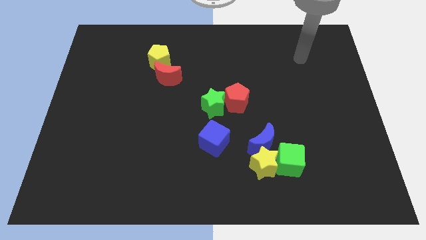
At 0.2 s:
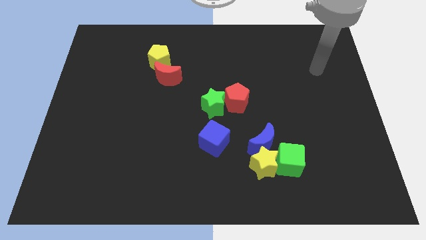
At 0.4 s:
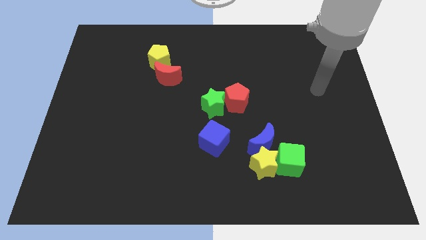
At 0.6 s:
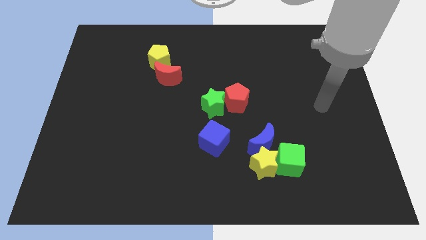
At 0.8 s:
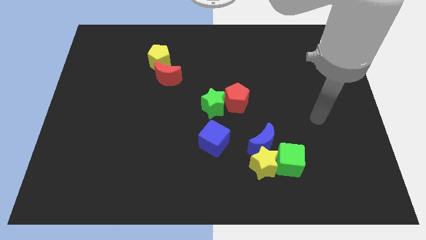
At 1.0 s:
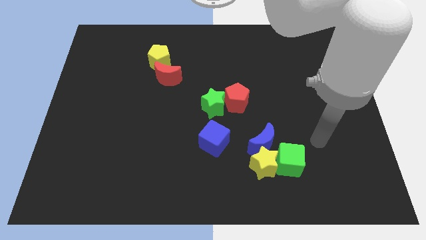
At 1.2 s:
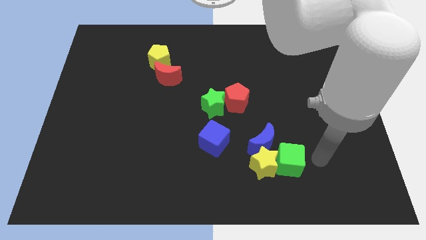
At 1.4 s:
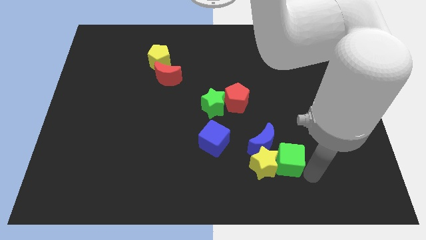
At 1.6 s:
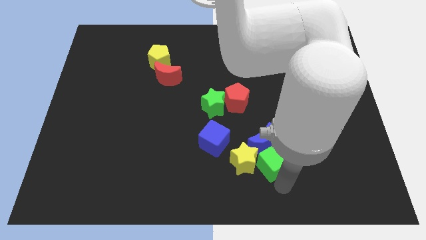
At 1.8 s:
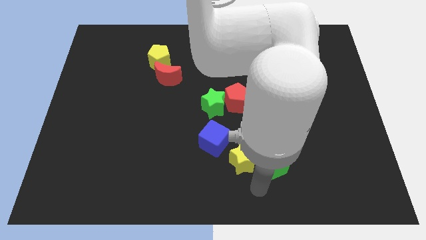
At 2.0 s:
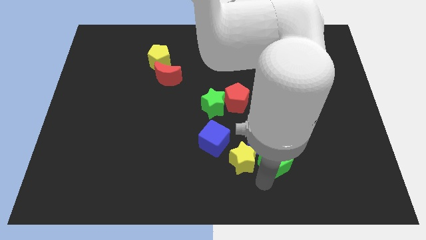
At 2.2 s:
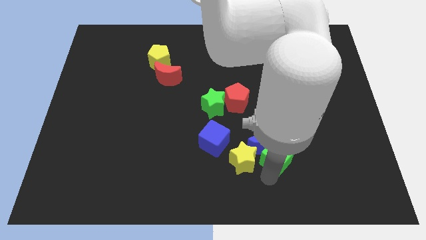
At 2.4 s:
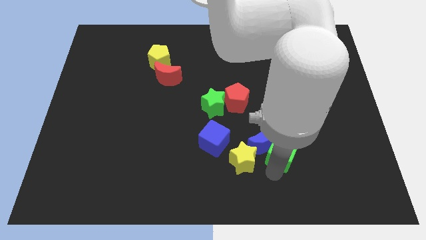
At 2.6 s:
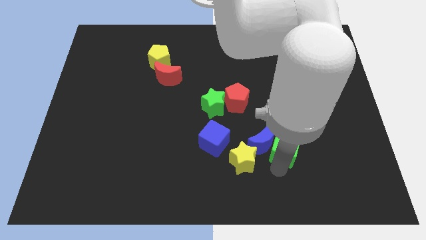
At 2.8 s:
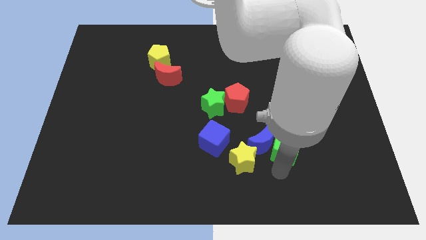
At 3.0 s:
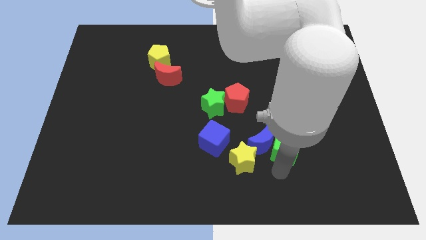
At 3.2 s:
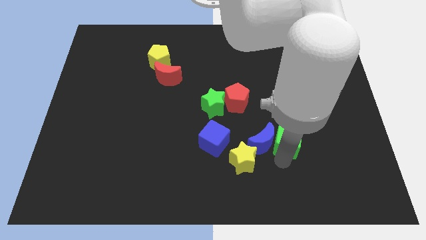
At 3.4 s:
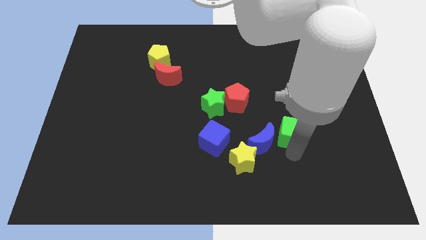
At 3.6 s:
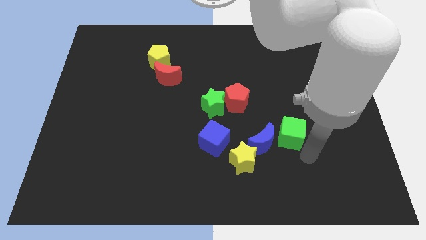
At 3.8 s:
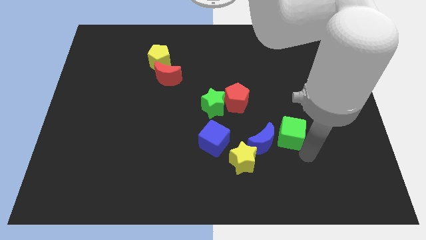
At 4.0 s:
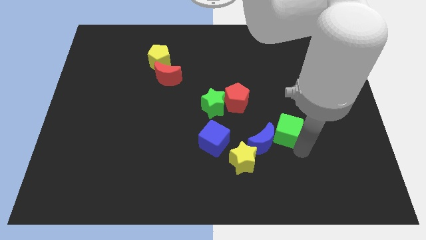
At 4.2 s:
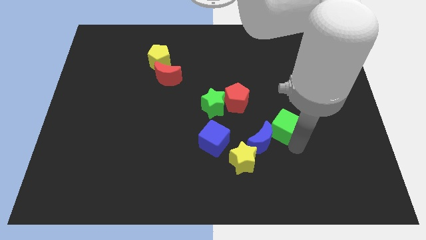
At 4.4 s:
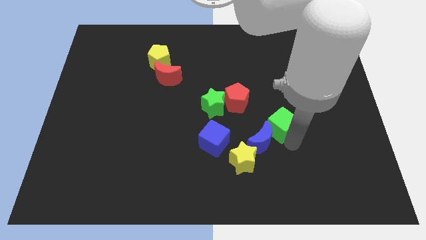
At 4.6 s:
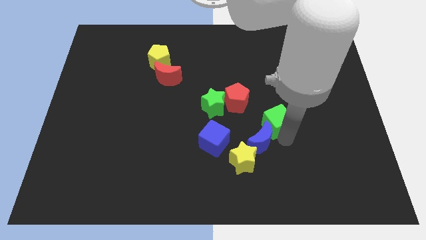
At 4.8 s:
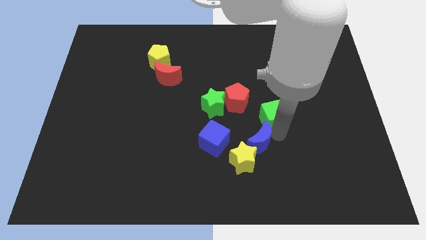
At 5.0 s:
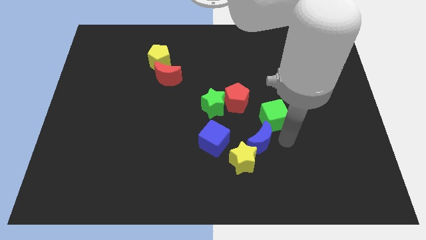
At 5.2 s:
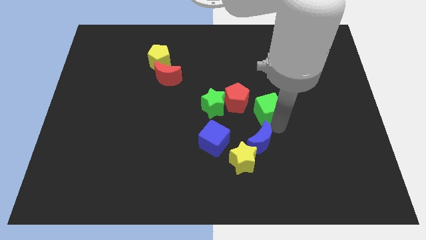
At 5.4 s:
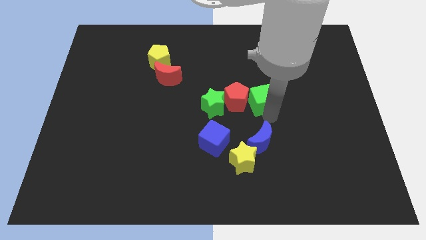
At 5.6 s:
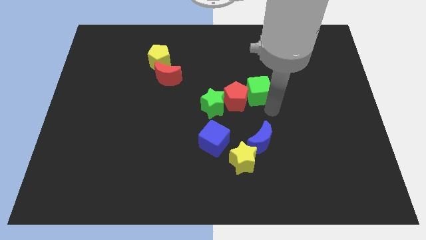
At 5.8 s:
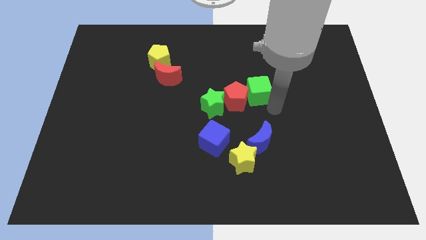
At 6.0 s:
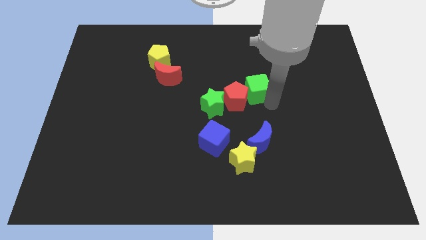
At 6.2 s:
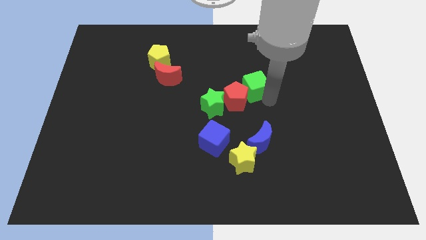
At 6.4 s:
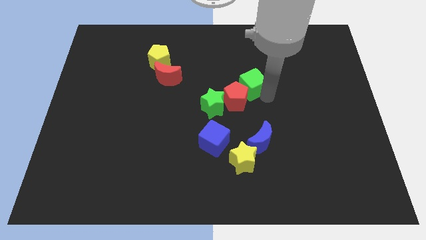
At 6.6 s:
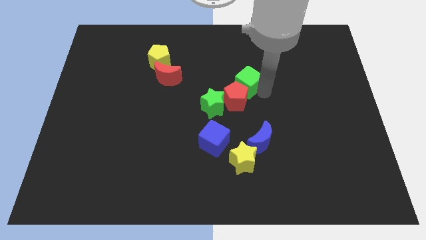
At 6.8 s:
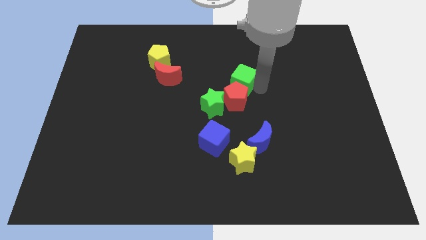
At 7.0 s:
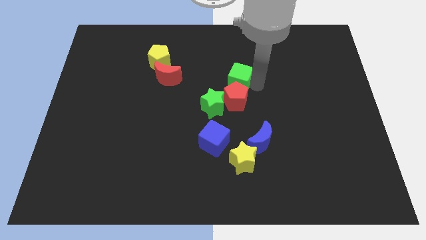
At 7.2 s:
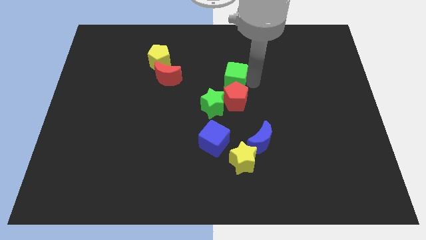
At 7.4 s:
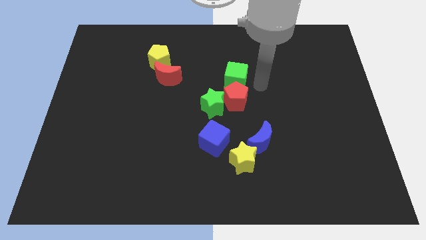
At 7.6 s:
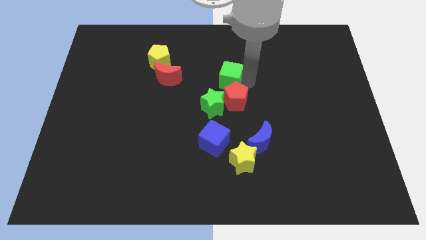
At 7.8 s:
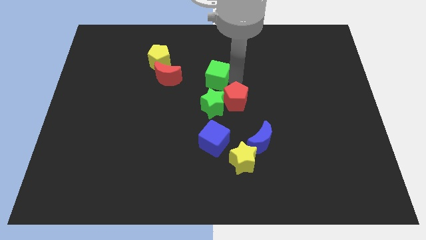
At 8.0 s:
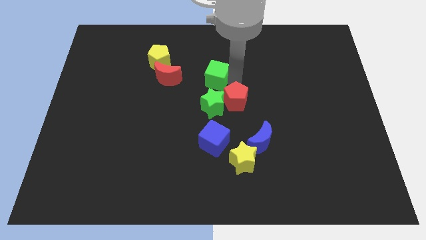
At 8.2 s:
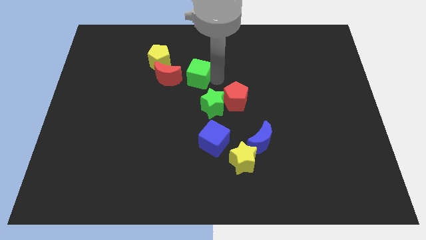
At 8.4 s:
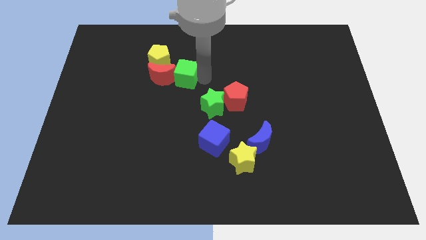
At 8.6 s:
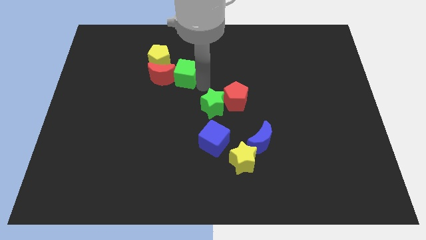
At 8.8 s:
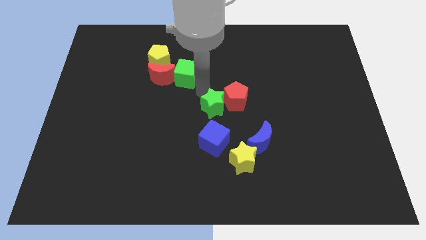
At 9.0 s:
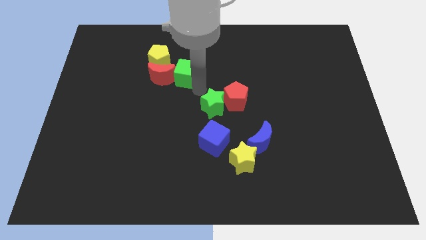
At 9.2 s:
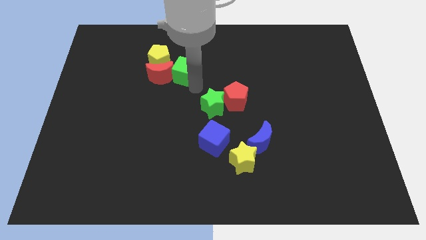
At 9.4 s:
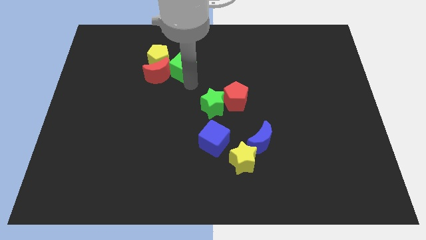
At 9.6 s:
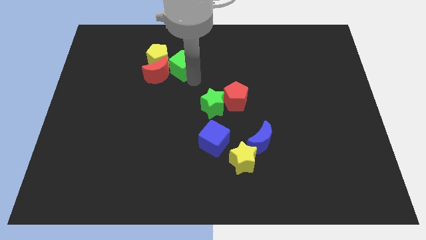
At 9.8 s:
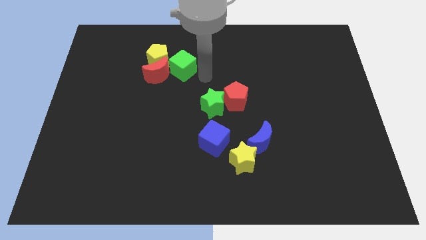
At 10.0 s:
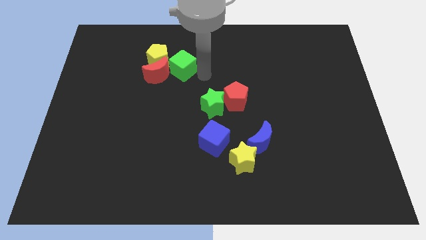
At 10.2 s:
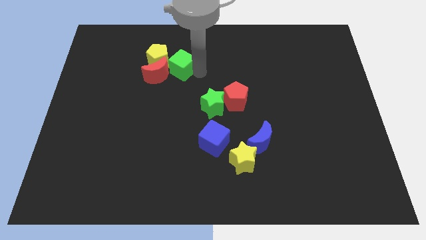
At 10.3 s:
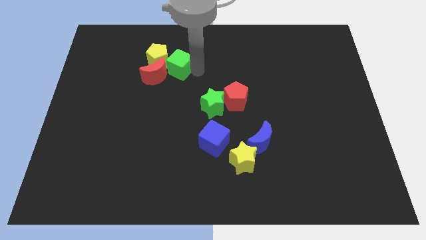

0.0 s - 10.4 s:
put the green cube to the yellow pentagon

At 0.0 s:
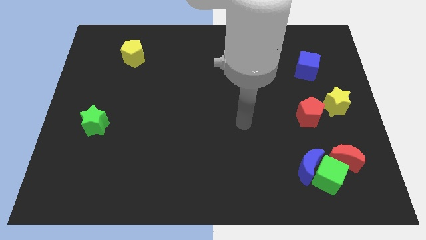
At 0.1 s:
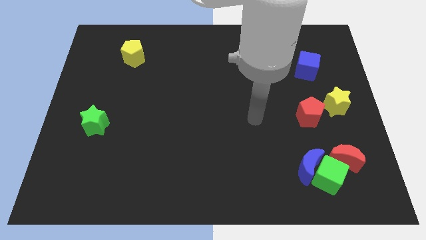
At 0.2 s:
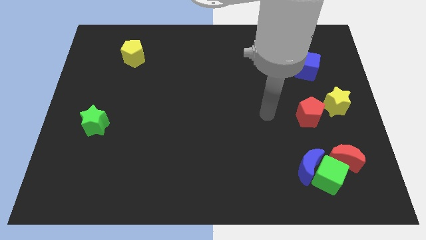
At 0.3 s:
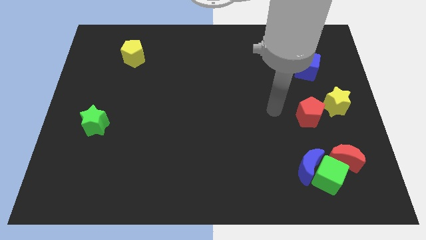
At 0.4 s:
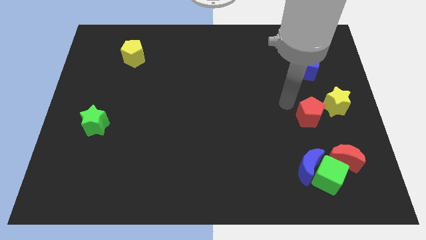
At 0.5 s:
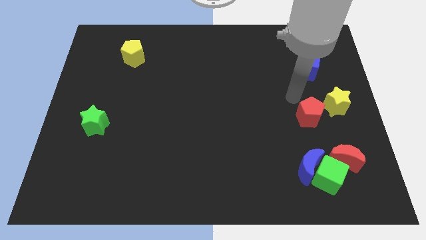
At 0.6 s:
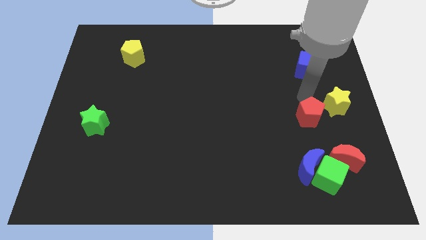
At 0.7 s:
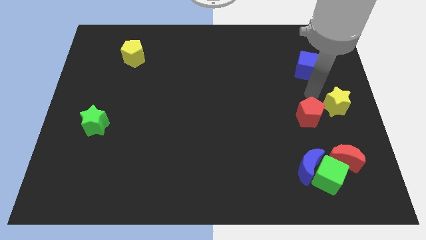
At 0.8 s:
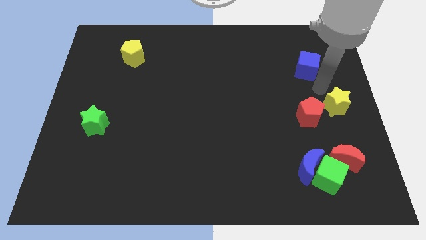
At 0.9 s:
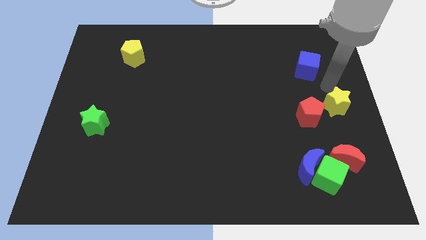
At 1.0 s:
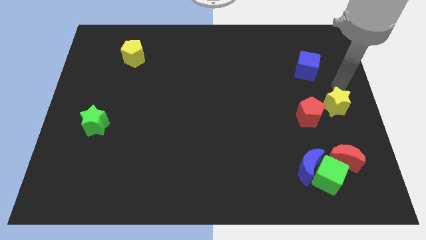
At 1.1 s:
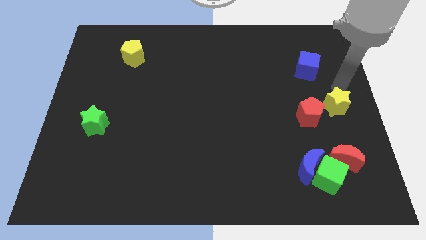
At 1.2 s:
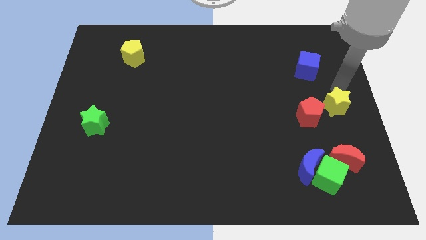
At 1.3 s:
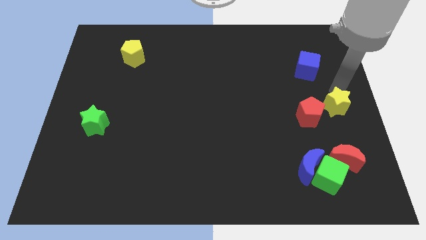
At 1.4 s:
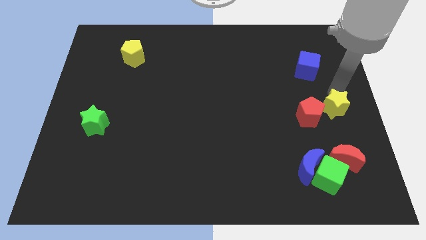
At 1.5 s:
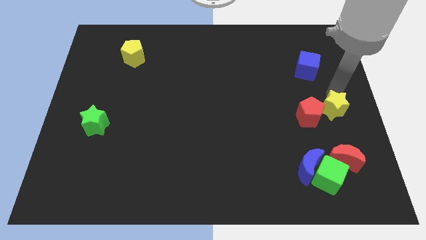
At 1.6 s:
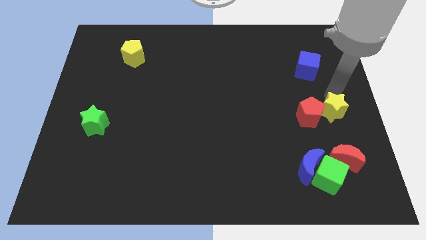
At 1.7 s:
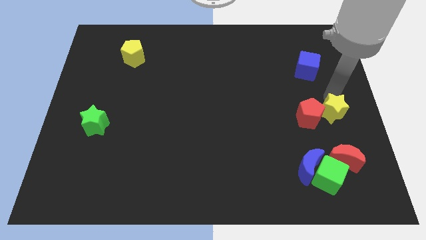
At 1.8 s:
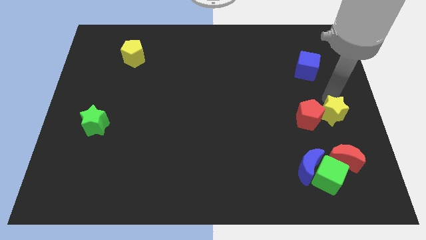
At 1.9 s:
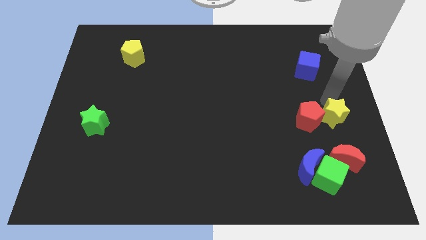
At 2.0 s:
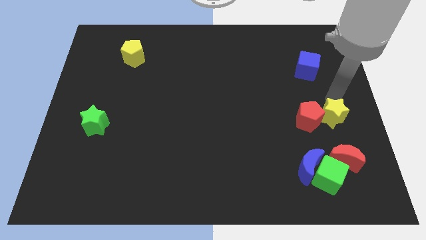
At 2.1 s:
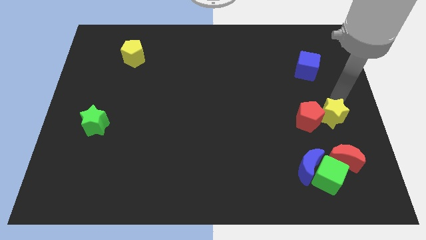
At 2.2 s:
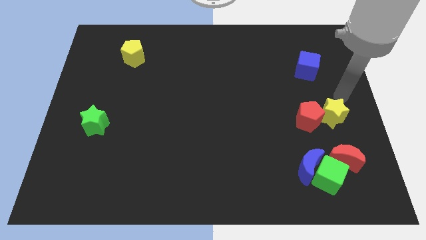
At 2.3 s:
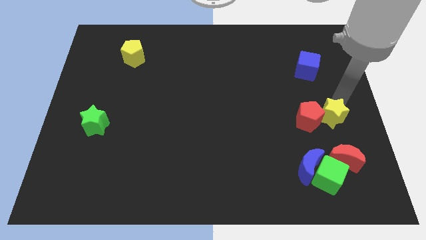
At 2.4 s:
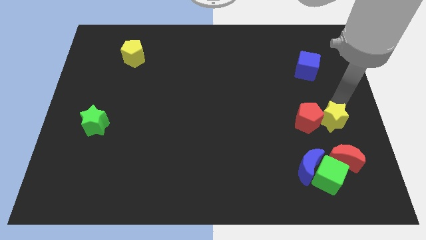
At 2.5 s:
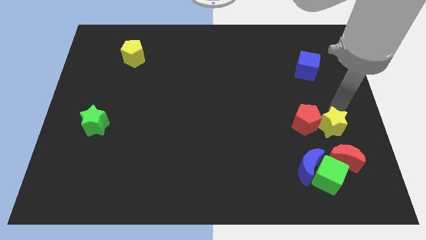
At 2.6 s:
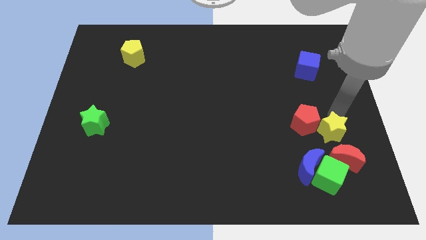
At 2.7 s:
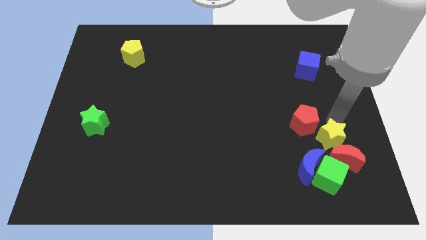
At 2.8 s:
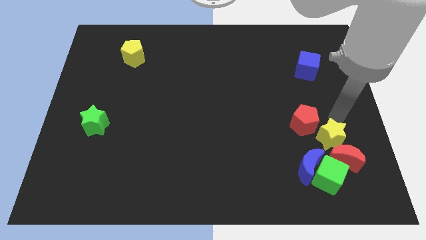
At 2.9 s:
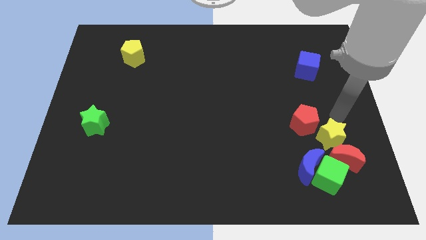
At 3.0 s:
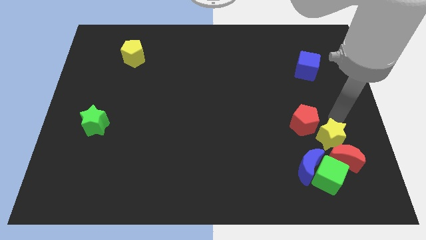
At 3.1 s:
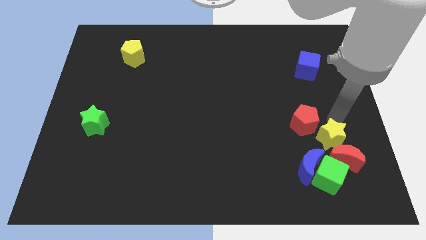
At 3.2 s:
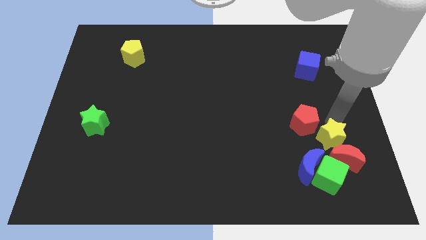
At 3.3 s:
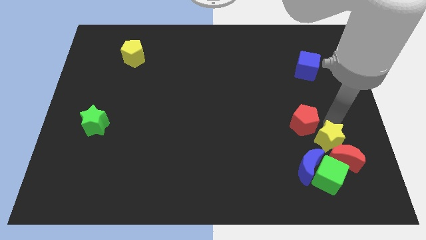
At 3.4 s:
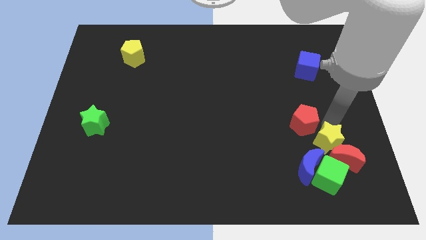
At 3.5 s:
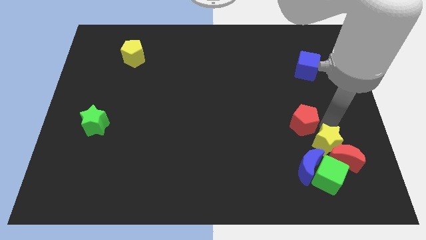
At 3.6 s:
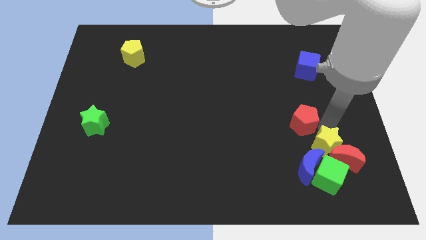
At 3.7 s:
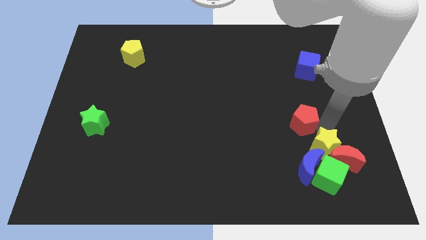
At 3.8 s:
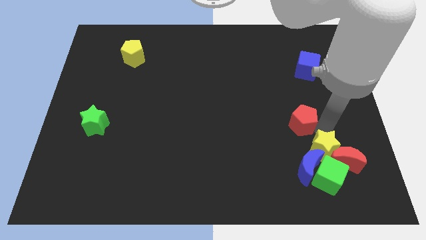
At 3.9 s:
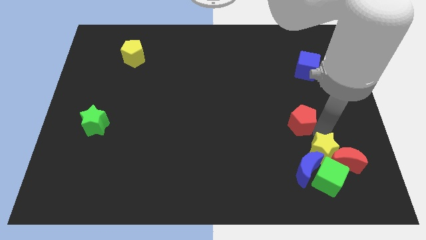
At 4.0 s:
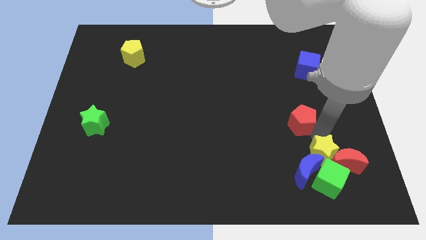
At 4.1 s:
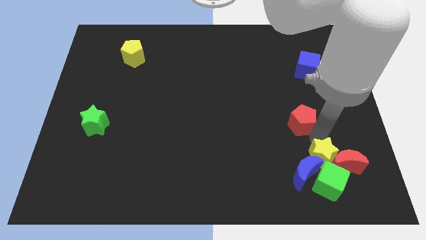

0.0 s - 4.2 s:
move the yellow star to the green cube
